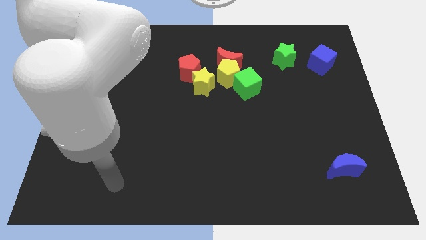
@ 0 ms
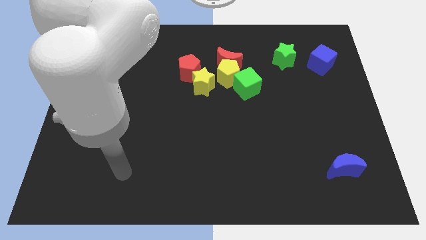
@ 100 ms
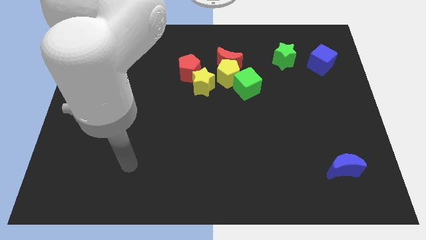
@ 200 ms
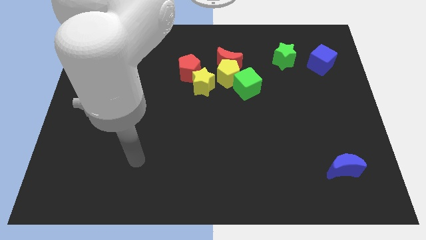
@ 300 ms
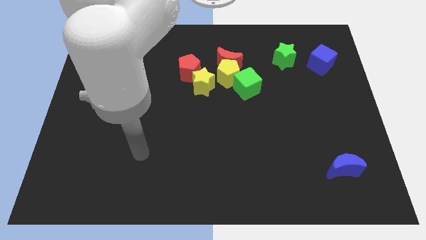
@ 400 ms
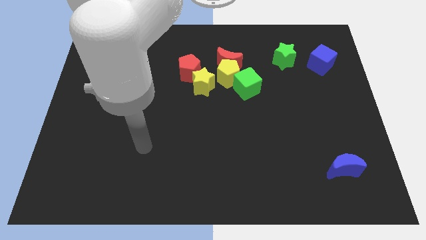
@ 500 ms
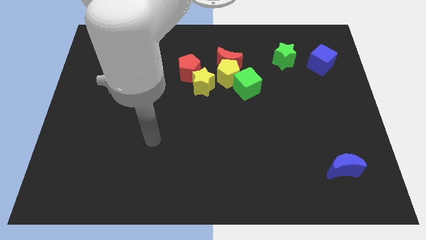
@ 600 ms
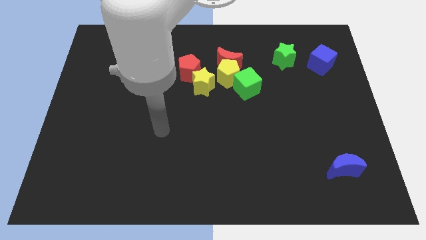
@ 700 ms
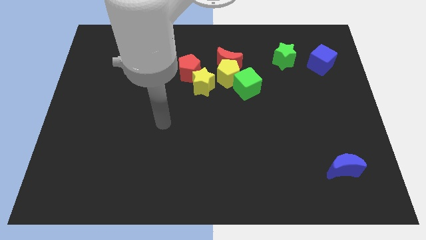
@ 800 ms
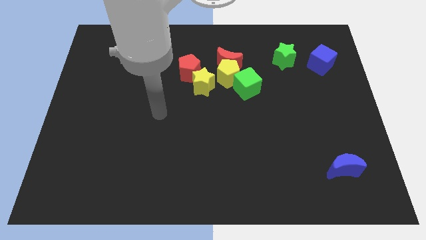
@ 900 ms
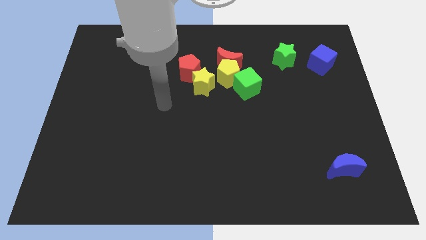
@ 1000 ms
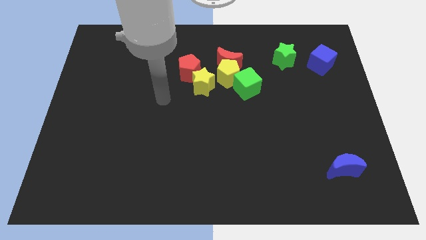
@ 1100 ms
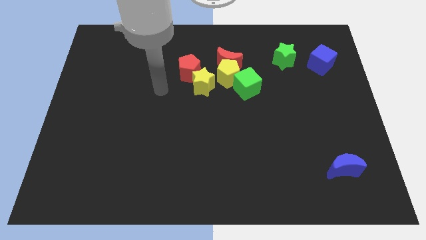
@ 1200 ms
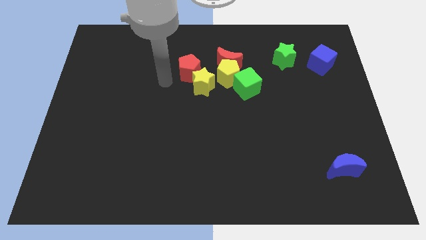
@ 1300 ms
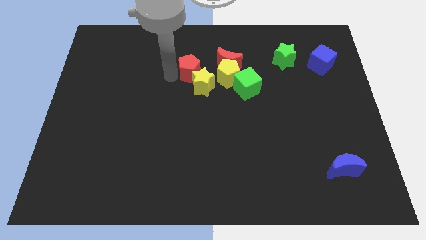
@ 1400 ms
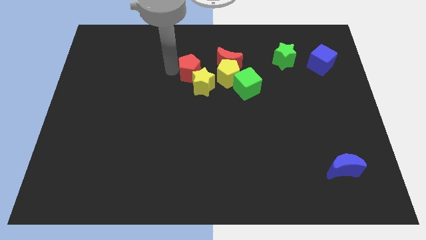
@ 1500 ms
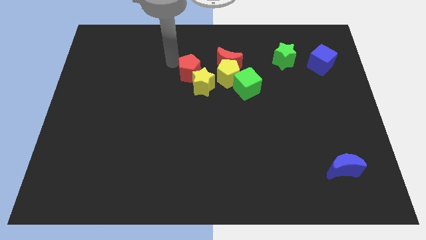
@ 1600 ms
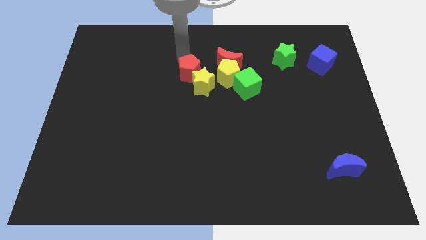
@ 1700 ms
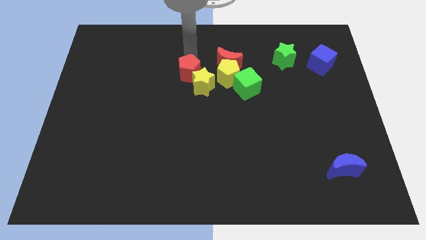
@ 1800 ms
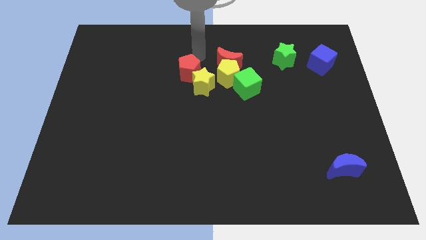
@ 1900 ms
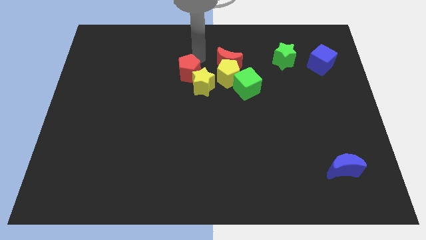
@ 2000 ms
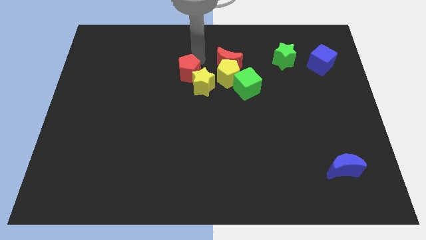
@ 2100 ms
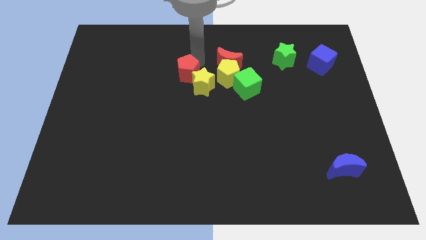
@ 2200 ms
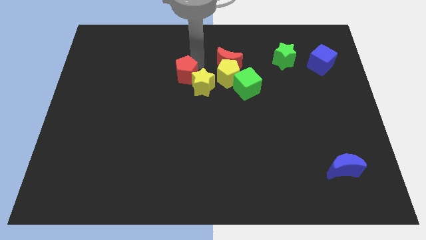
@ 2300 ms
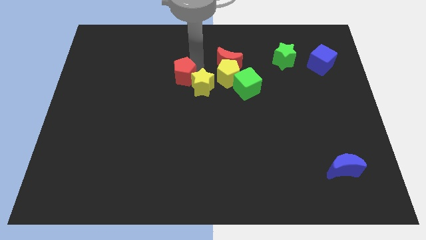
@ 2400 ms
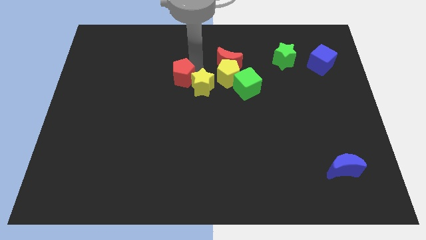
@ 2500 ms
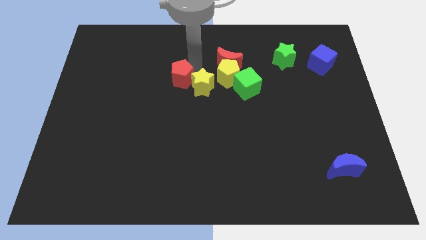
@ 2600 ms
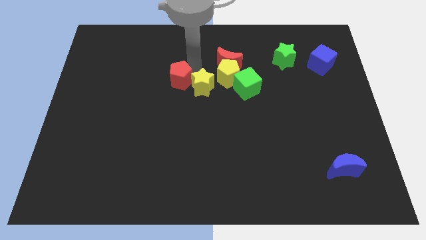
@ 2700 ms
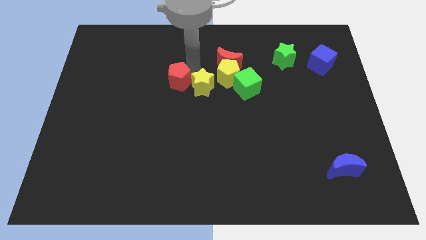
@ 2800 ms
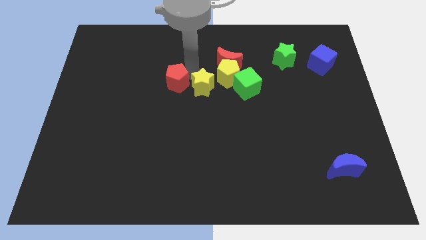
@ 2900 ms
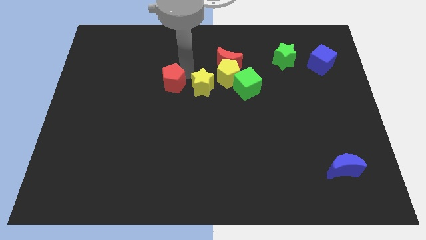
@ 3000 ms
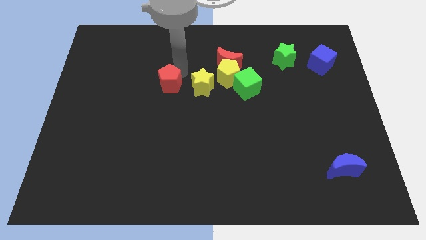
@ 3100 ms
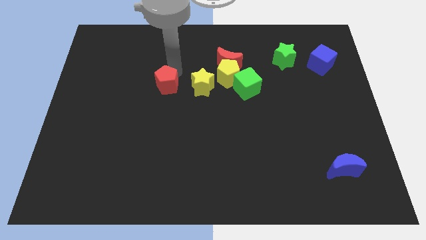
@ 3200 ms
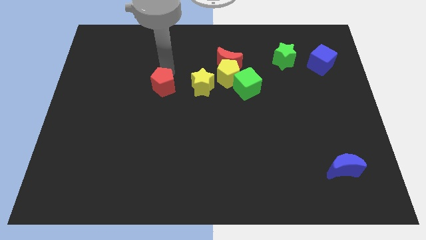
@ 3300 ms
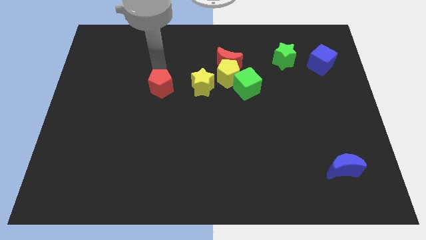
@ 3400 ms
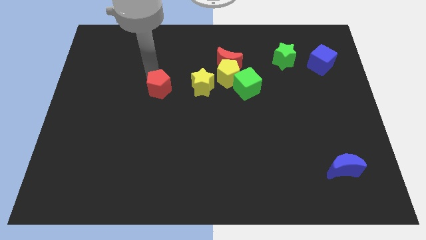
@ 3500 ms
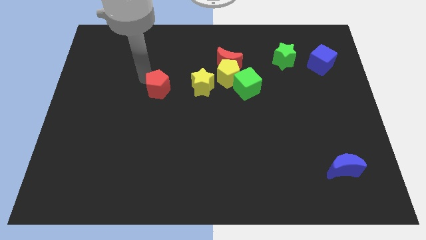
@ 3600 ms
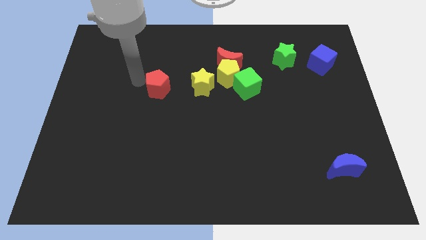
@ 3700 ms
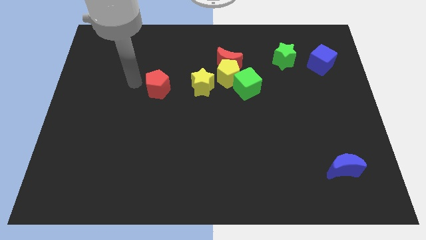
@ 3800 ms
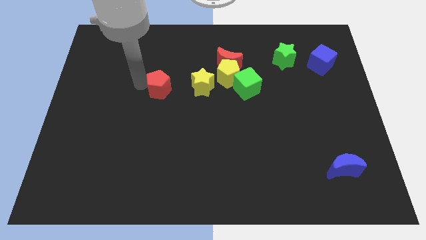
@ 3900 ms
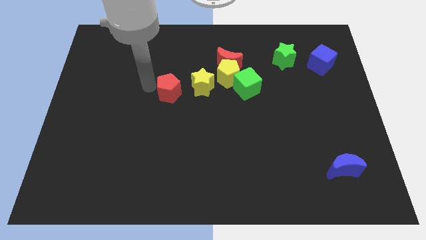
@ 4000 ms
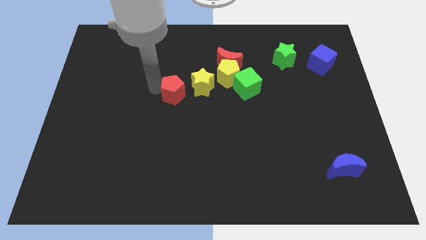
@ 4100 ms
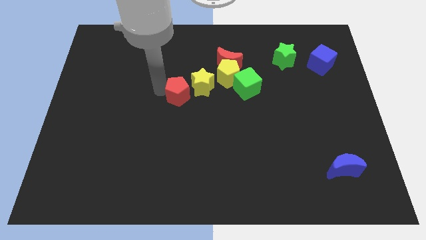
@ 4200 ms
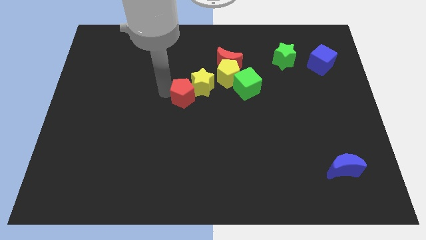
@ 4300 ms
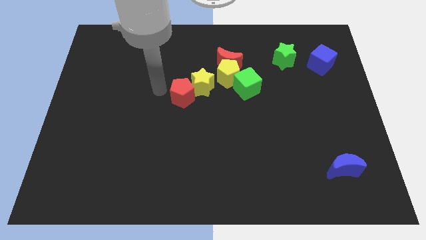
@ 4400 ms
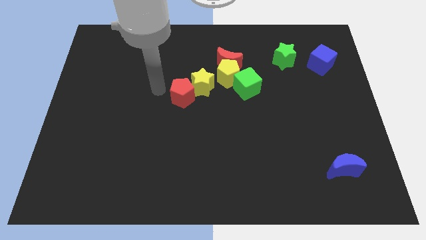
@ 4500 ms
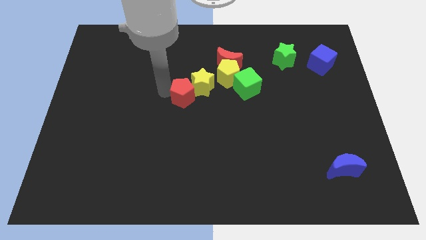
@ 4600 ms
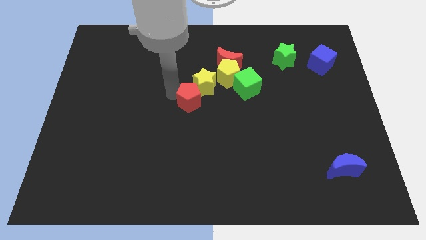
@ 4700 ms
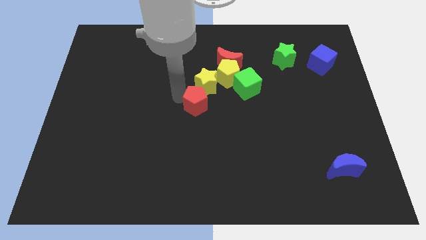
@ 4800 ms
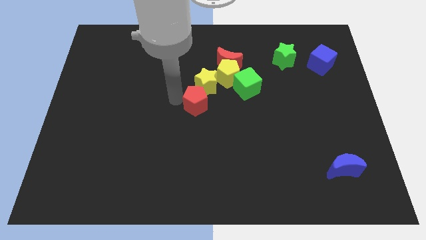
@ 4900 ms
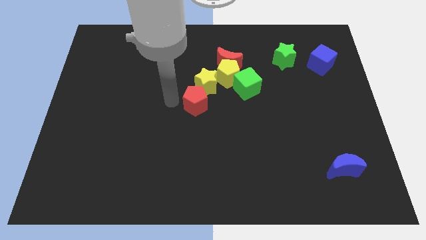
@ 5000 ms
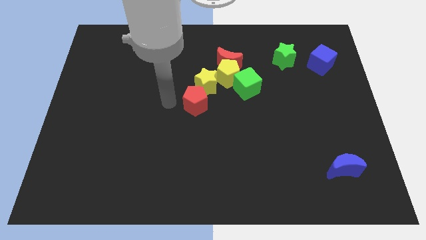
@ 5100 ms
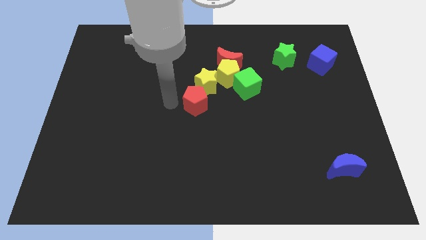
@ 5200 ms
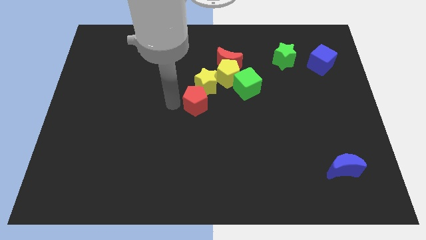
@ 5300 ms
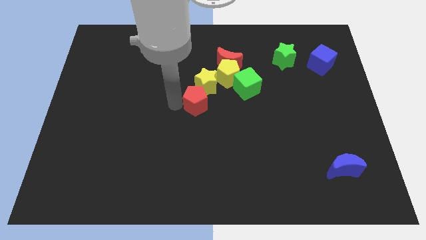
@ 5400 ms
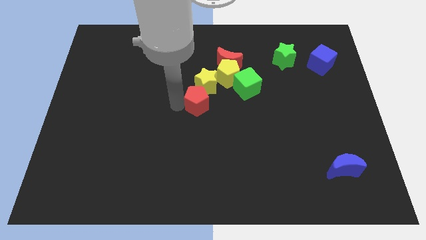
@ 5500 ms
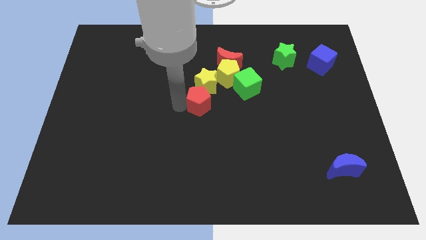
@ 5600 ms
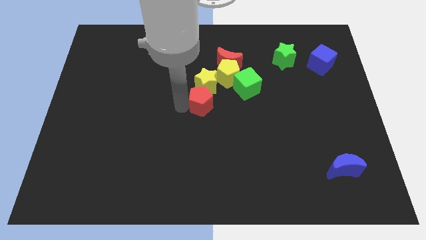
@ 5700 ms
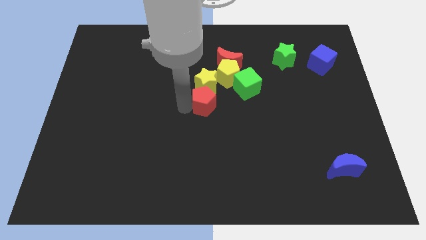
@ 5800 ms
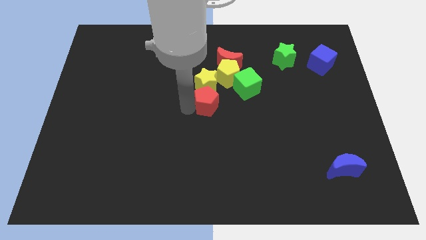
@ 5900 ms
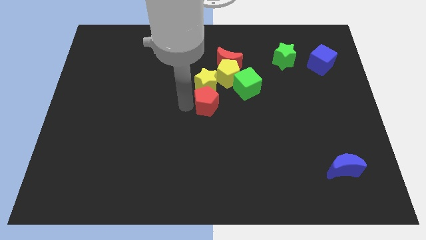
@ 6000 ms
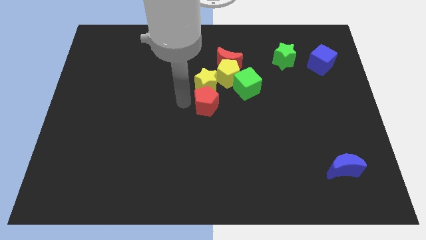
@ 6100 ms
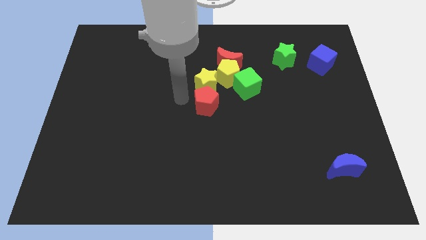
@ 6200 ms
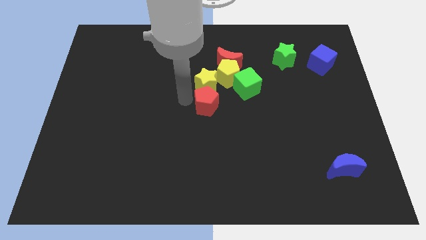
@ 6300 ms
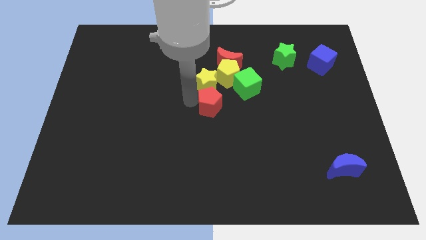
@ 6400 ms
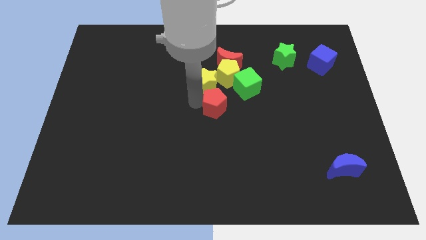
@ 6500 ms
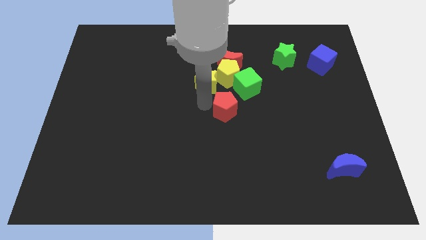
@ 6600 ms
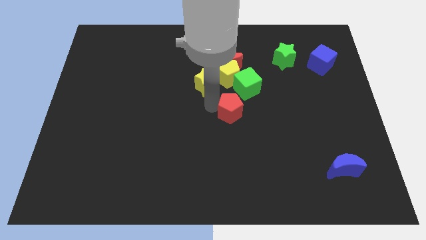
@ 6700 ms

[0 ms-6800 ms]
push the red pentagon to the bottom of the green cube
